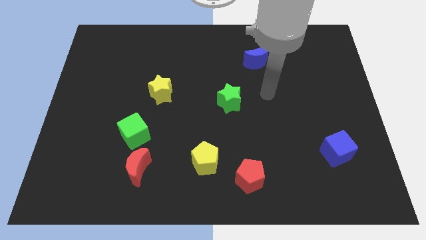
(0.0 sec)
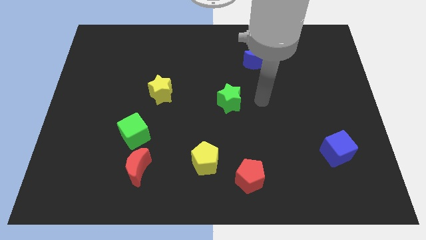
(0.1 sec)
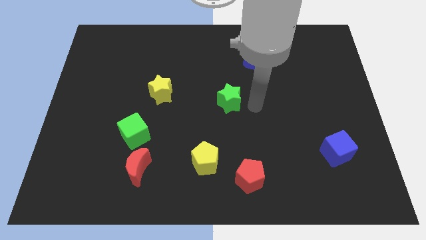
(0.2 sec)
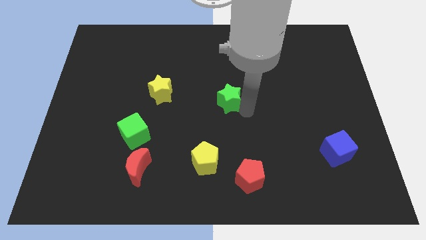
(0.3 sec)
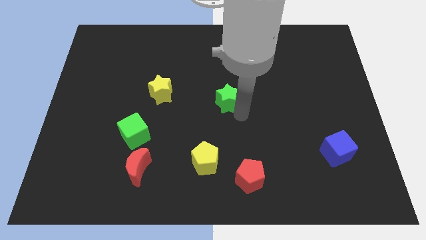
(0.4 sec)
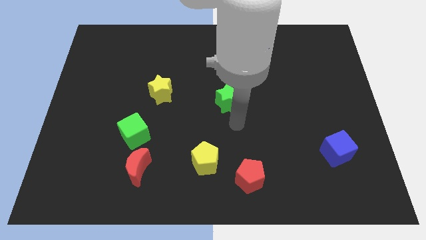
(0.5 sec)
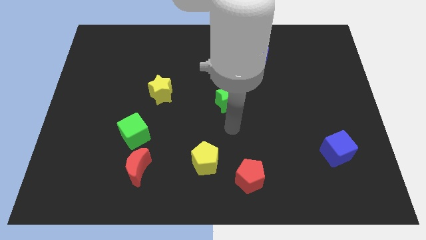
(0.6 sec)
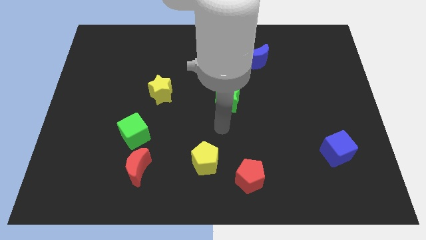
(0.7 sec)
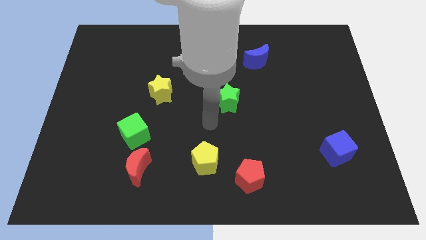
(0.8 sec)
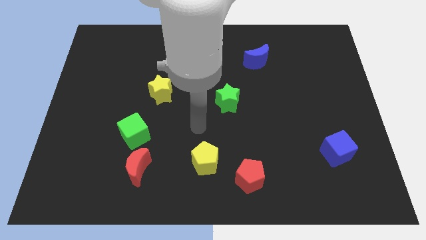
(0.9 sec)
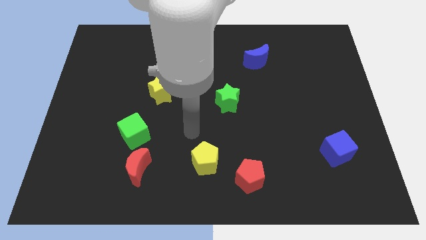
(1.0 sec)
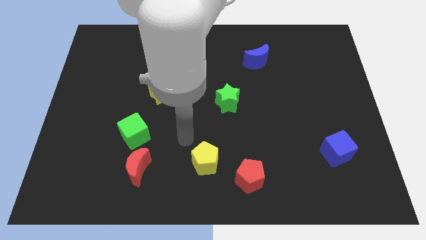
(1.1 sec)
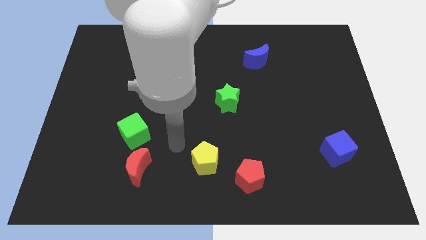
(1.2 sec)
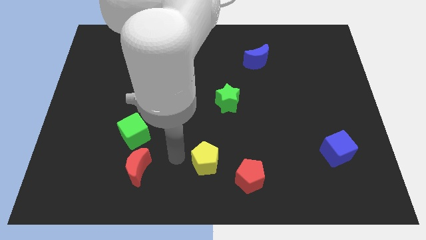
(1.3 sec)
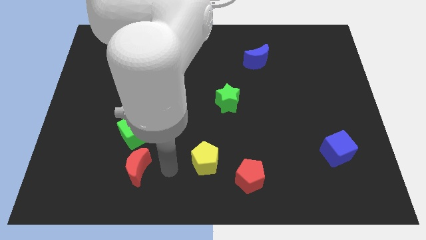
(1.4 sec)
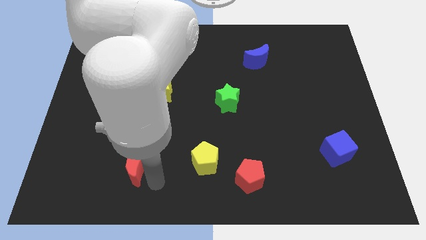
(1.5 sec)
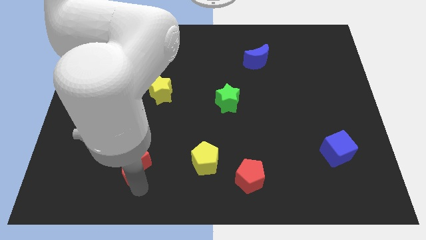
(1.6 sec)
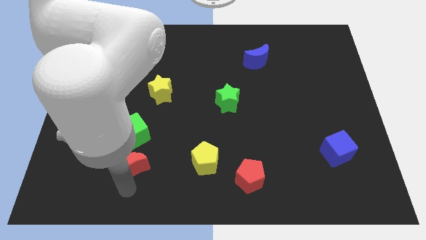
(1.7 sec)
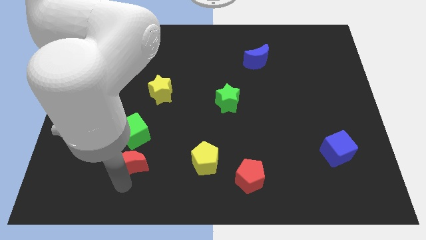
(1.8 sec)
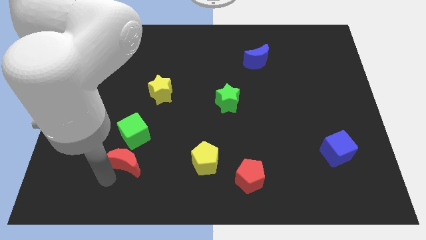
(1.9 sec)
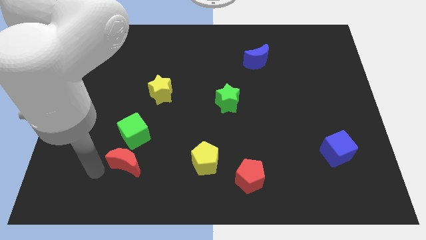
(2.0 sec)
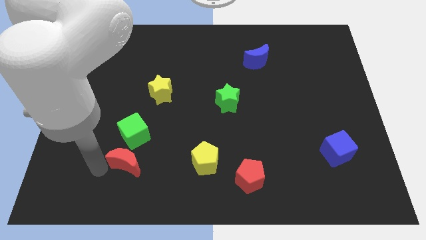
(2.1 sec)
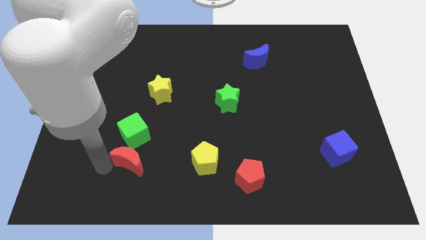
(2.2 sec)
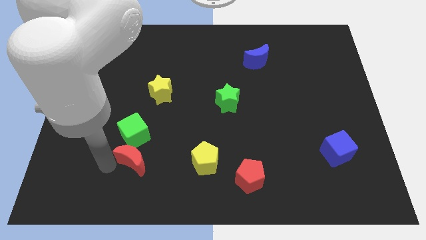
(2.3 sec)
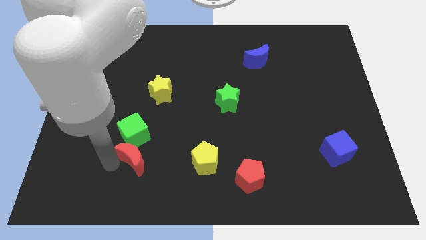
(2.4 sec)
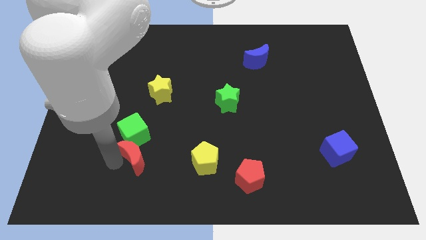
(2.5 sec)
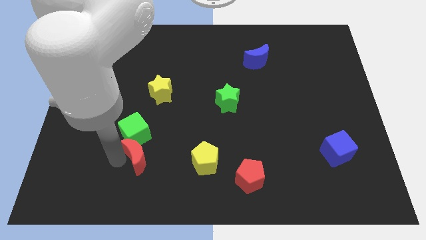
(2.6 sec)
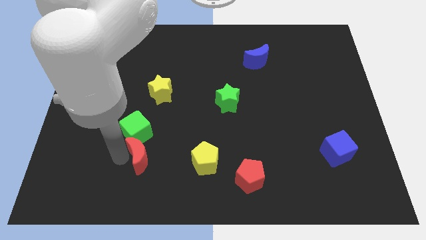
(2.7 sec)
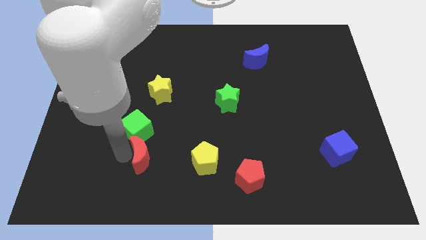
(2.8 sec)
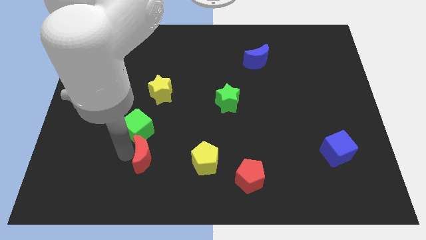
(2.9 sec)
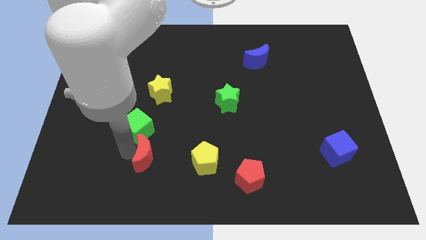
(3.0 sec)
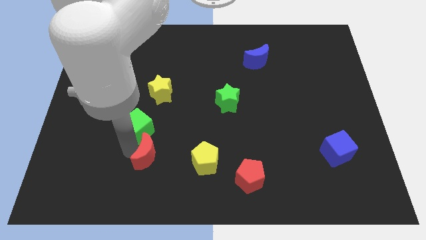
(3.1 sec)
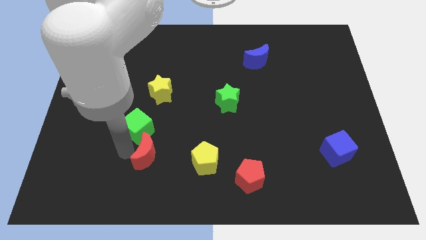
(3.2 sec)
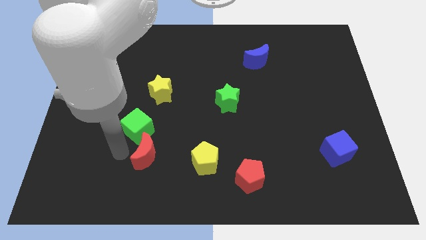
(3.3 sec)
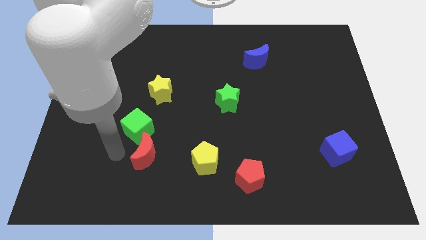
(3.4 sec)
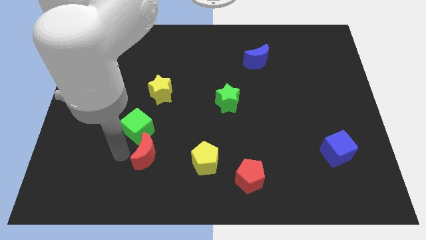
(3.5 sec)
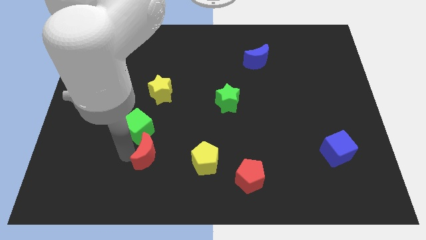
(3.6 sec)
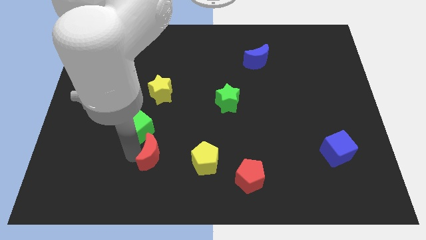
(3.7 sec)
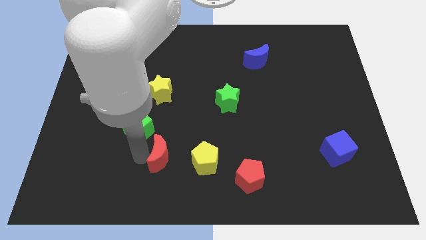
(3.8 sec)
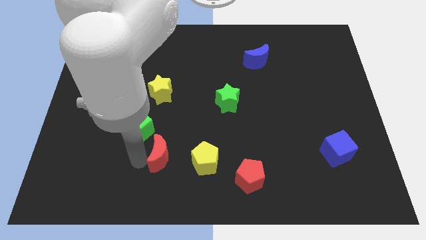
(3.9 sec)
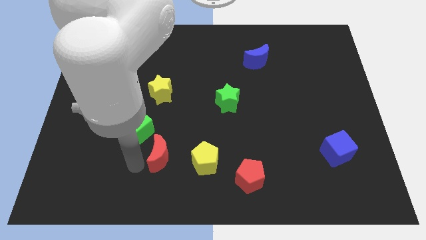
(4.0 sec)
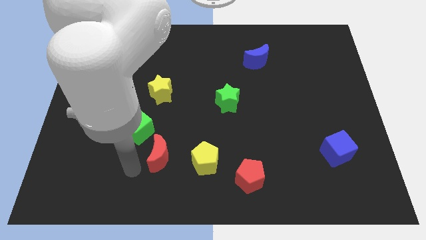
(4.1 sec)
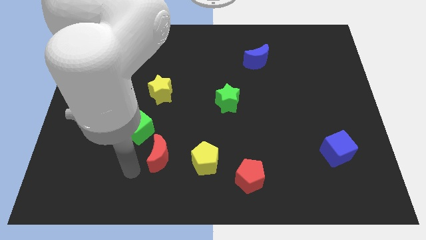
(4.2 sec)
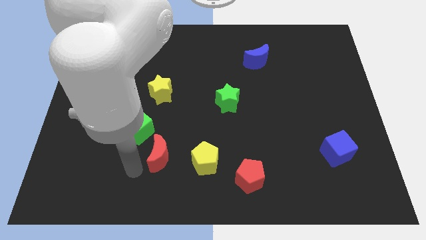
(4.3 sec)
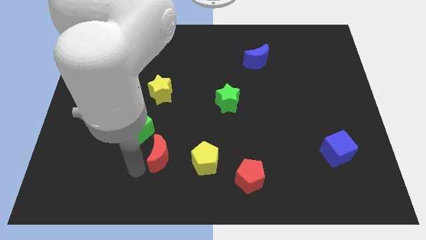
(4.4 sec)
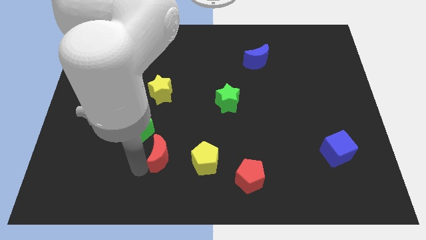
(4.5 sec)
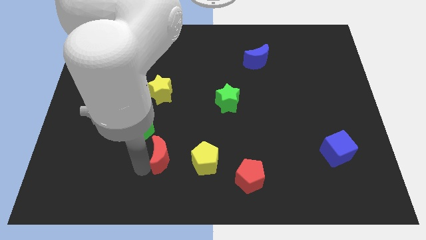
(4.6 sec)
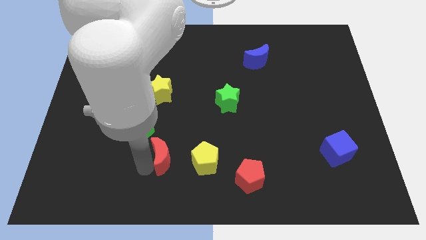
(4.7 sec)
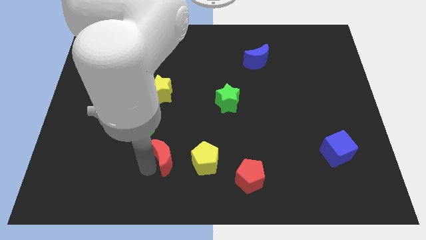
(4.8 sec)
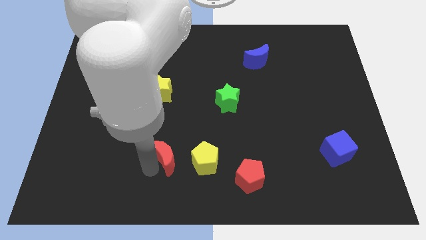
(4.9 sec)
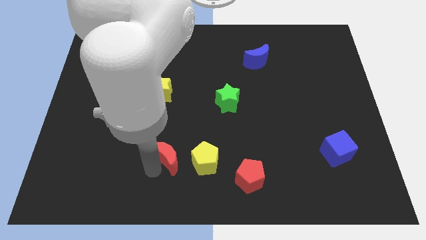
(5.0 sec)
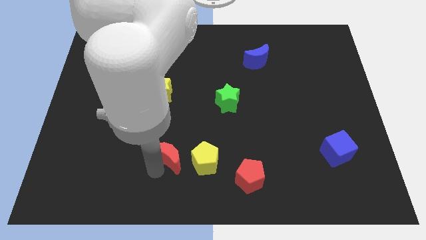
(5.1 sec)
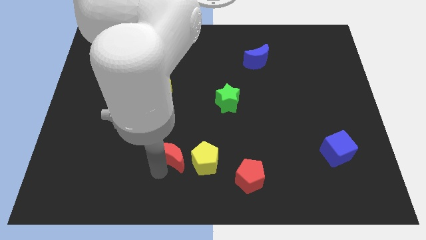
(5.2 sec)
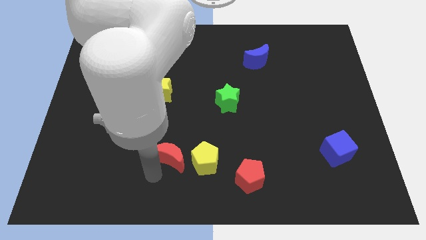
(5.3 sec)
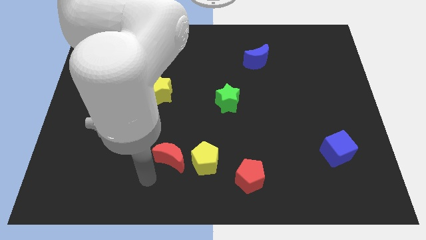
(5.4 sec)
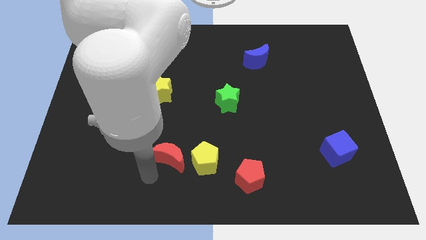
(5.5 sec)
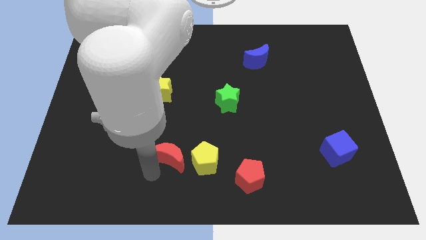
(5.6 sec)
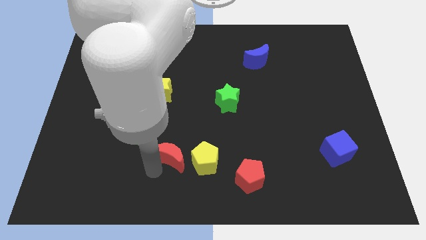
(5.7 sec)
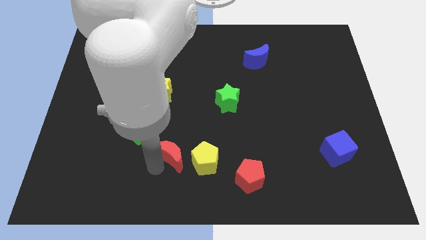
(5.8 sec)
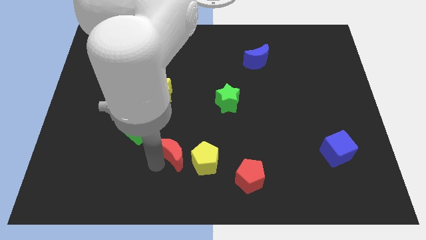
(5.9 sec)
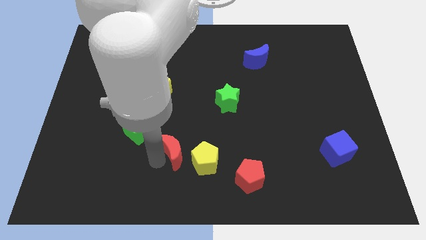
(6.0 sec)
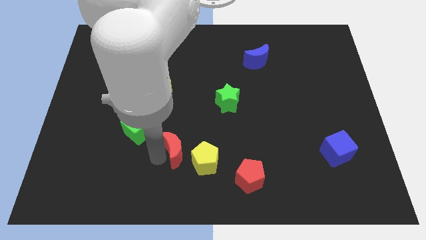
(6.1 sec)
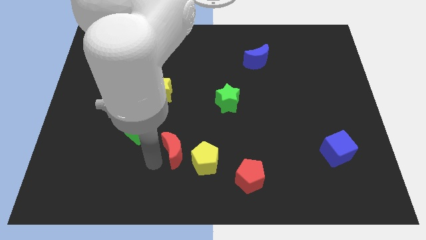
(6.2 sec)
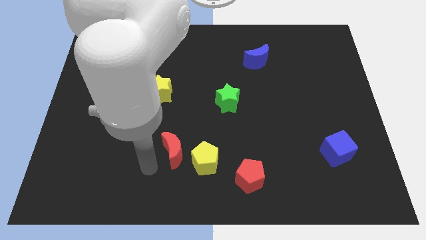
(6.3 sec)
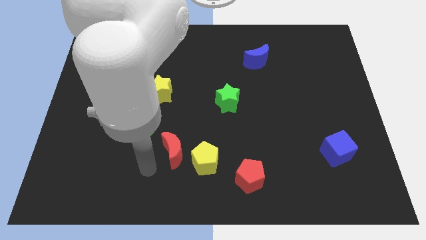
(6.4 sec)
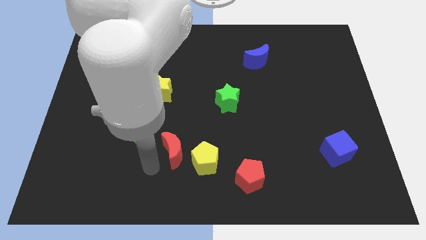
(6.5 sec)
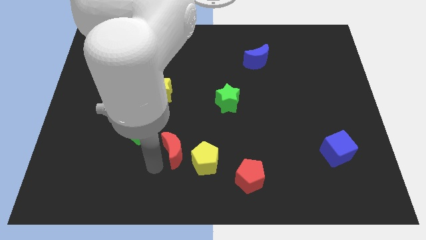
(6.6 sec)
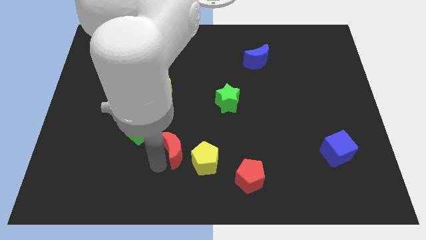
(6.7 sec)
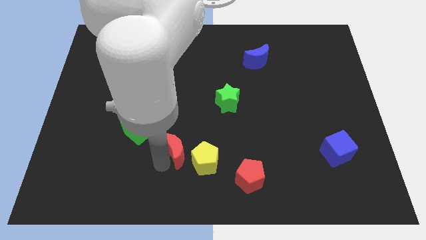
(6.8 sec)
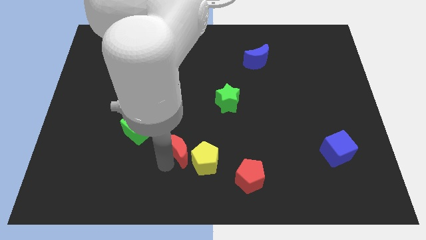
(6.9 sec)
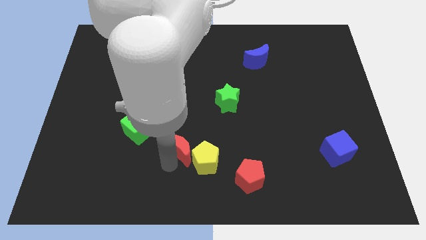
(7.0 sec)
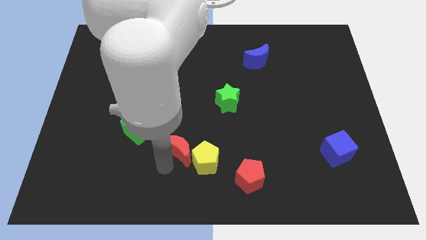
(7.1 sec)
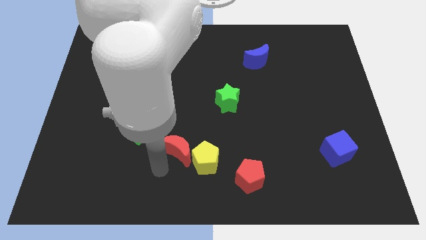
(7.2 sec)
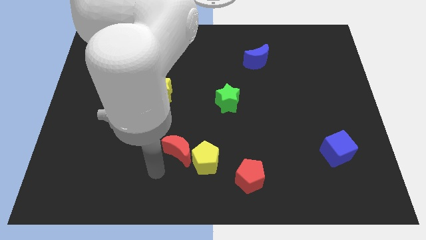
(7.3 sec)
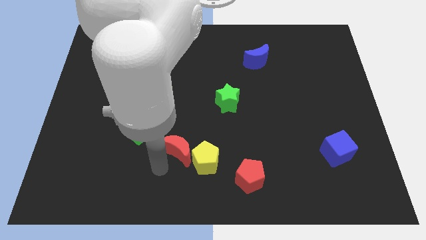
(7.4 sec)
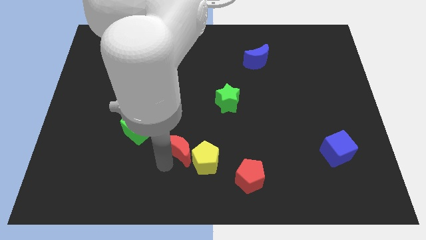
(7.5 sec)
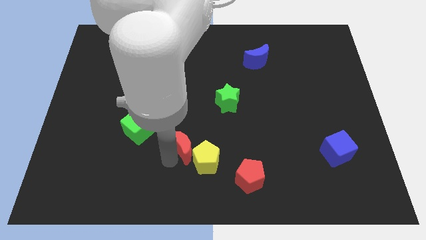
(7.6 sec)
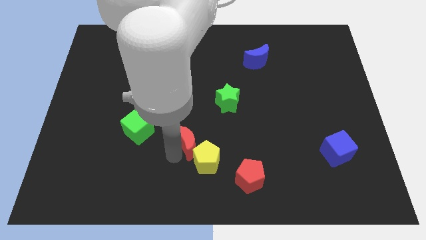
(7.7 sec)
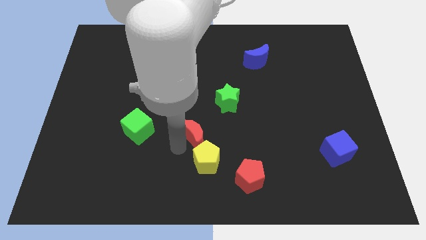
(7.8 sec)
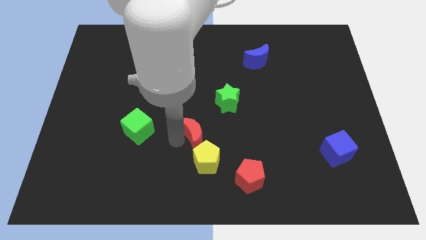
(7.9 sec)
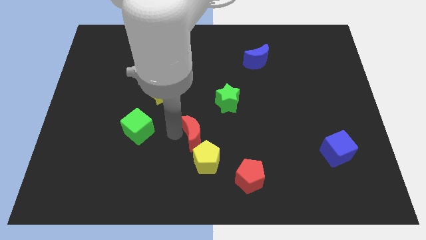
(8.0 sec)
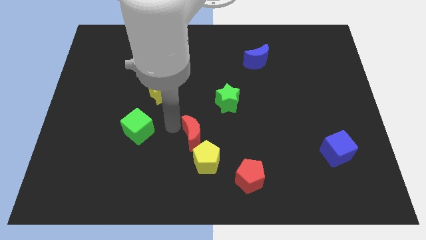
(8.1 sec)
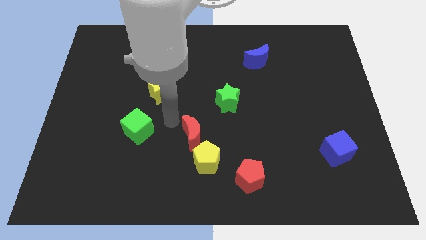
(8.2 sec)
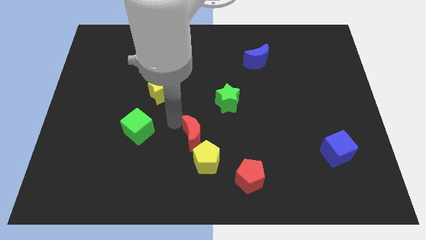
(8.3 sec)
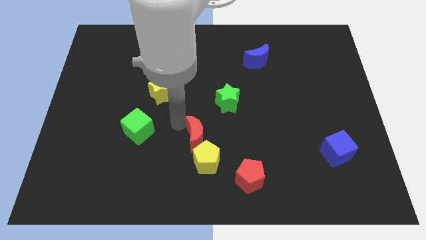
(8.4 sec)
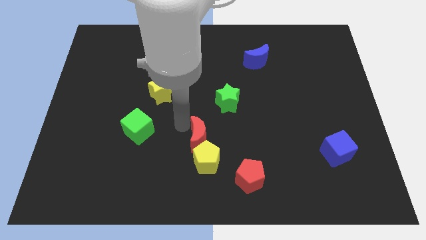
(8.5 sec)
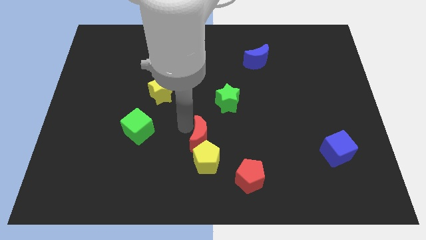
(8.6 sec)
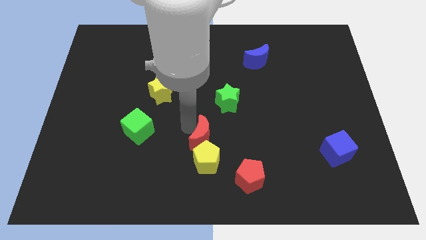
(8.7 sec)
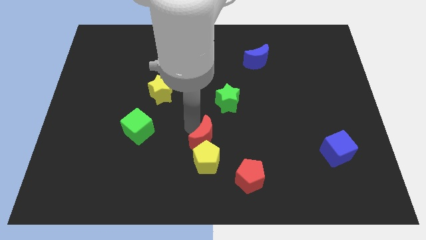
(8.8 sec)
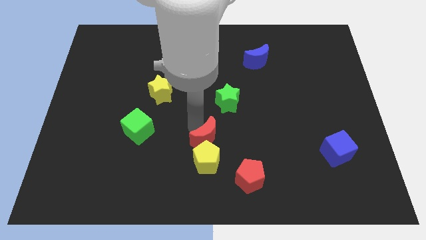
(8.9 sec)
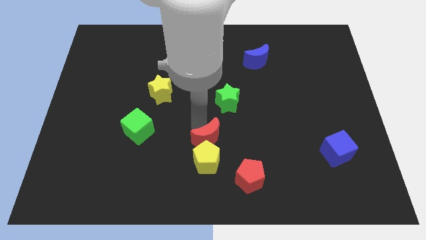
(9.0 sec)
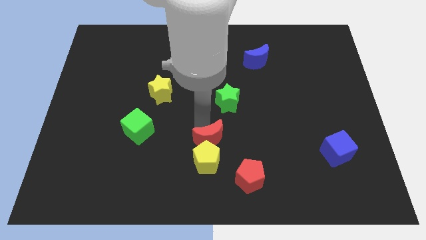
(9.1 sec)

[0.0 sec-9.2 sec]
push the red moon diagonally up and to the left of the red pentagon
